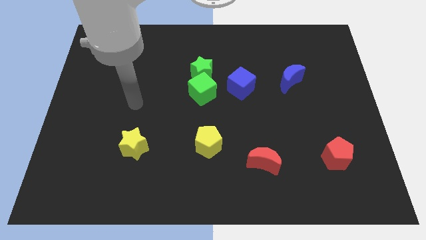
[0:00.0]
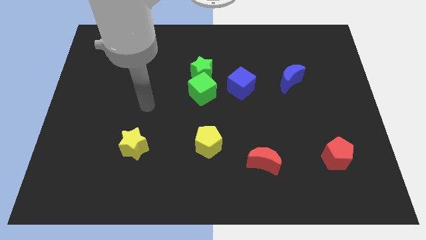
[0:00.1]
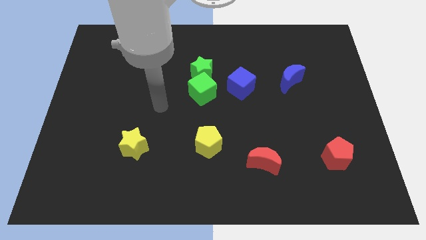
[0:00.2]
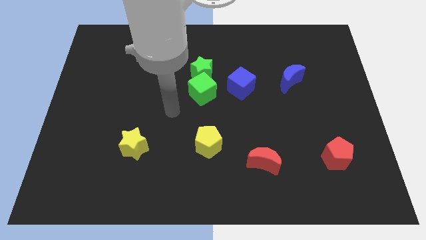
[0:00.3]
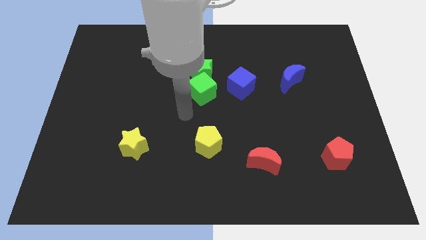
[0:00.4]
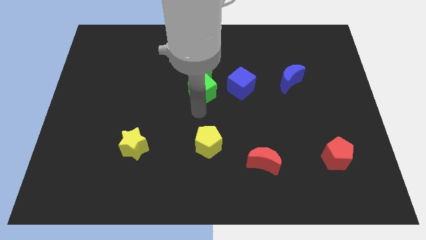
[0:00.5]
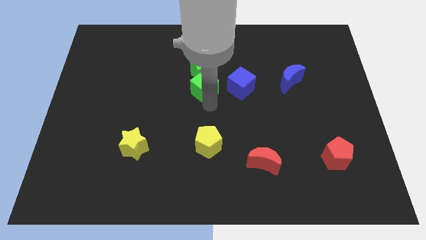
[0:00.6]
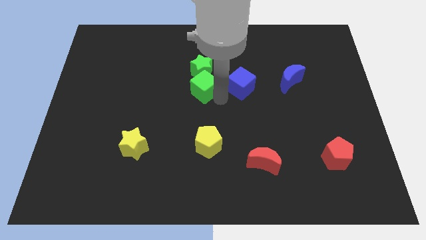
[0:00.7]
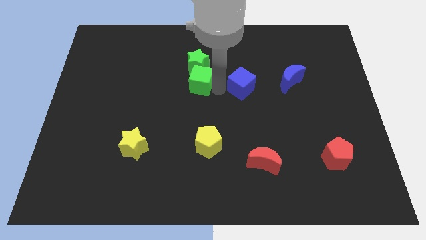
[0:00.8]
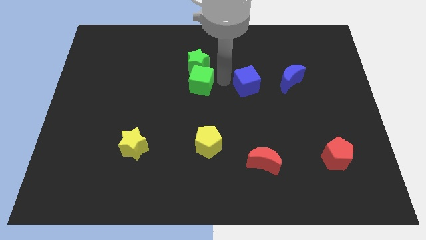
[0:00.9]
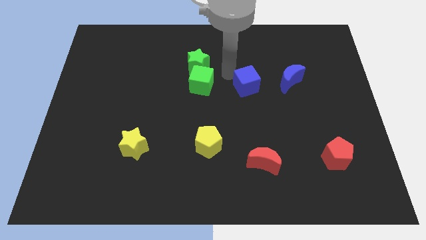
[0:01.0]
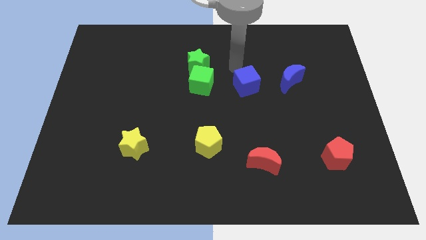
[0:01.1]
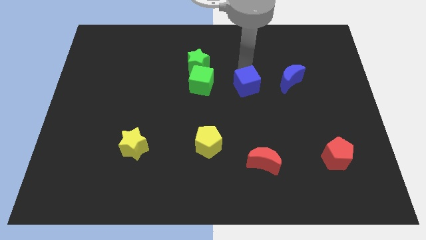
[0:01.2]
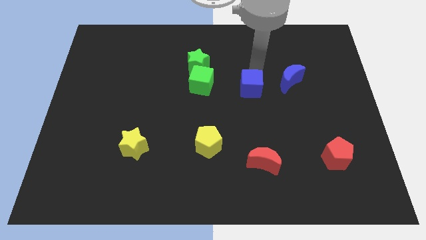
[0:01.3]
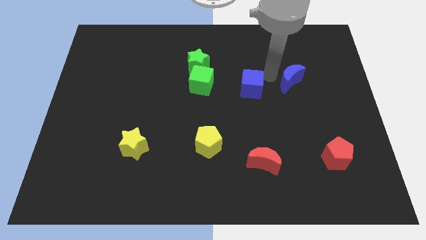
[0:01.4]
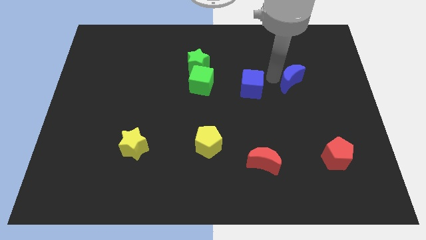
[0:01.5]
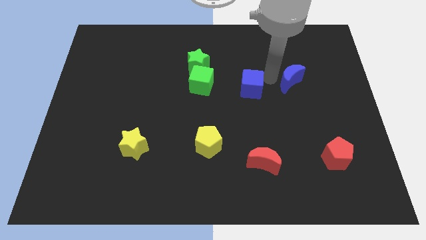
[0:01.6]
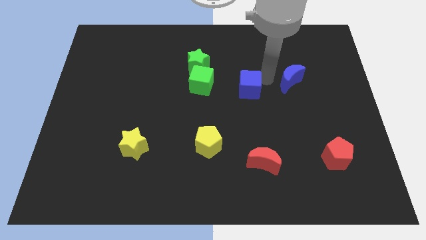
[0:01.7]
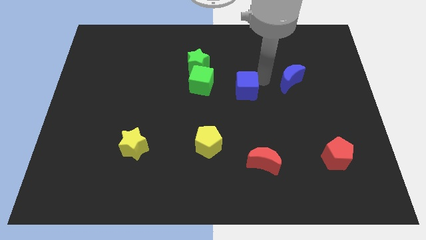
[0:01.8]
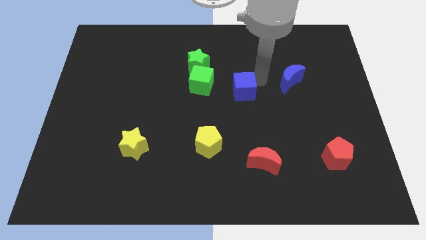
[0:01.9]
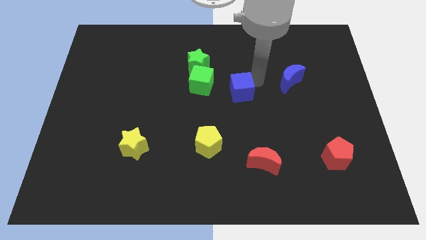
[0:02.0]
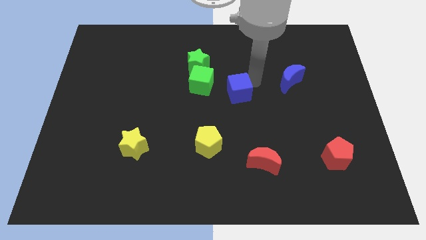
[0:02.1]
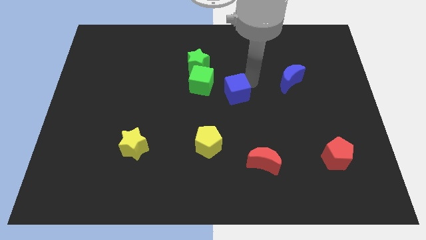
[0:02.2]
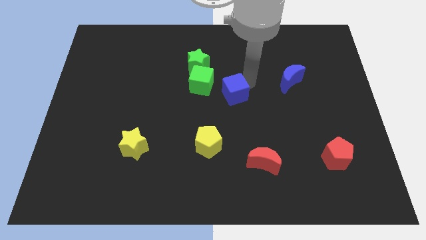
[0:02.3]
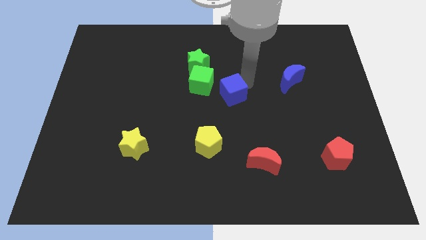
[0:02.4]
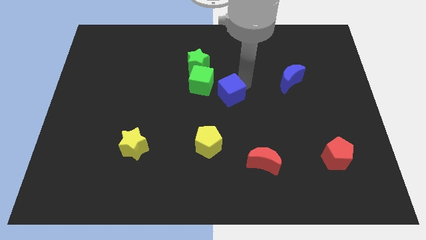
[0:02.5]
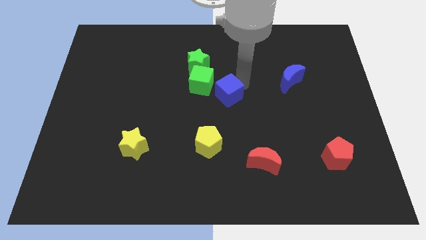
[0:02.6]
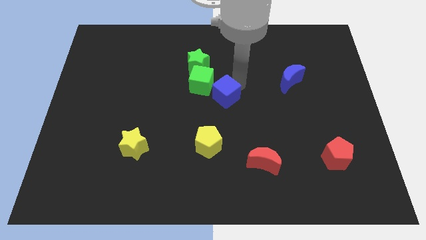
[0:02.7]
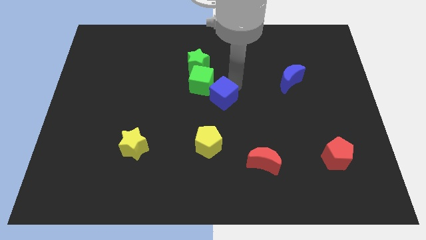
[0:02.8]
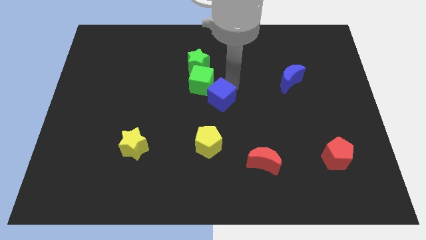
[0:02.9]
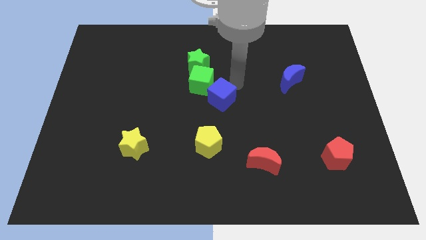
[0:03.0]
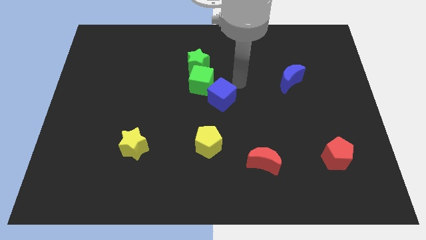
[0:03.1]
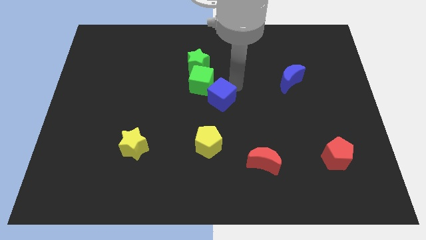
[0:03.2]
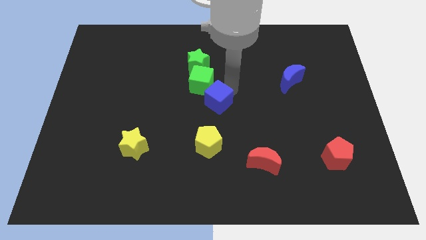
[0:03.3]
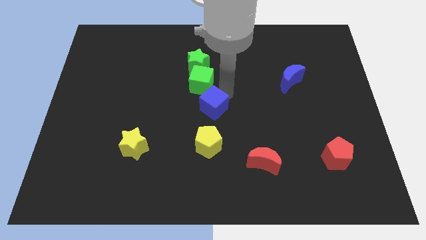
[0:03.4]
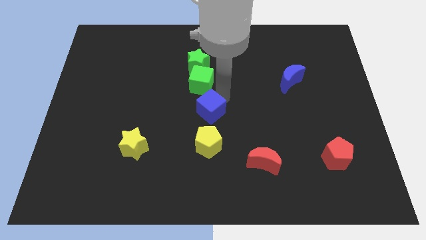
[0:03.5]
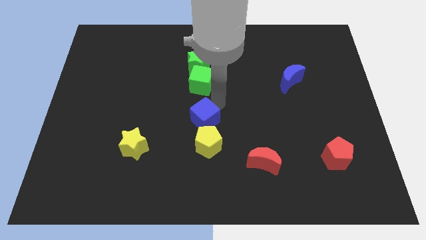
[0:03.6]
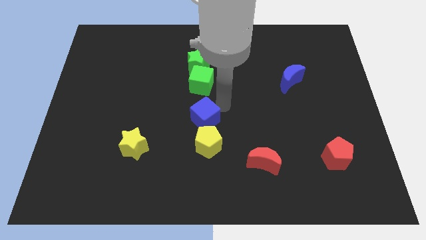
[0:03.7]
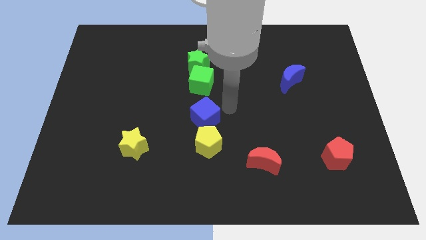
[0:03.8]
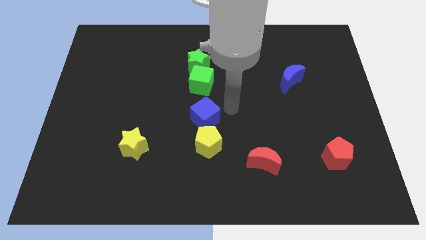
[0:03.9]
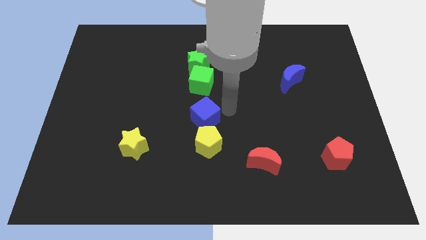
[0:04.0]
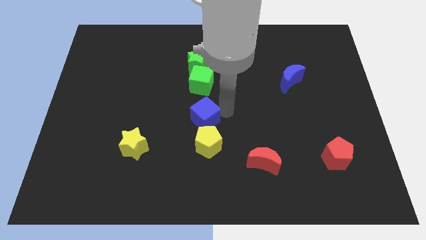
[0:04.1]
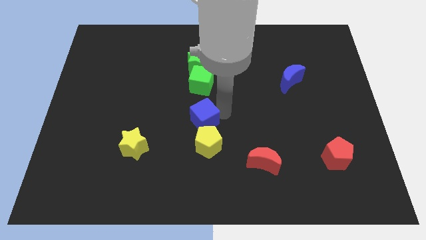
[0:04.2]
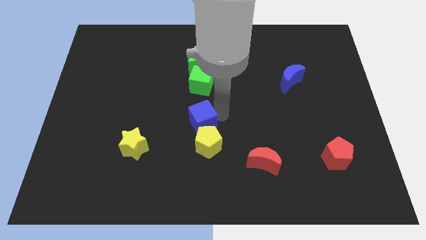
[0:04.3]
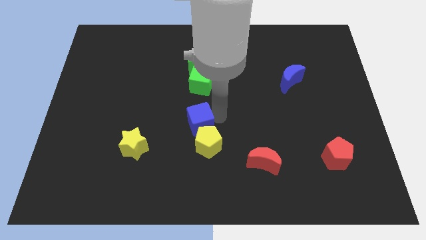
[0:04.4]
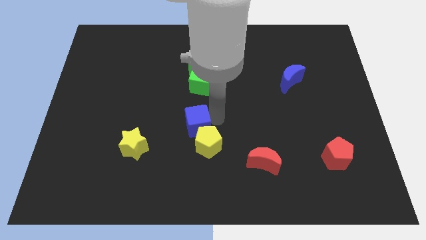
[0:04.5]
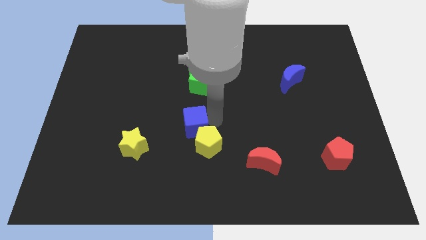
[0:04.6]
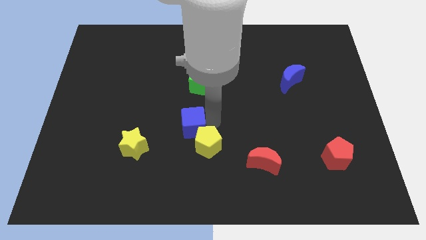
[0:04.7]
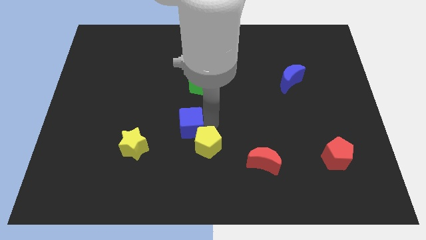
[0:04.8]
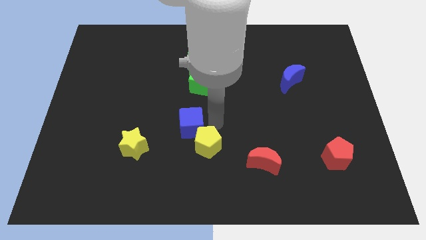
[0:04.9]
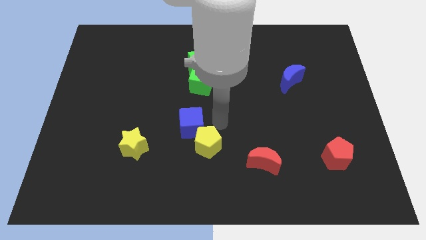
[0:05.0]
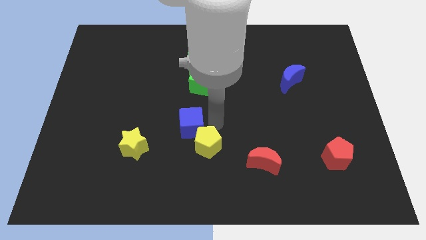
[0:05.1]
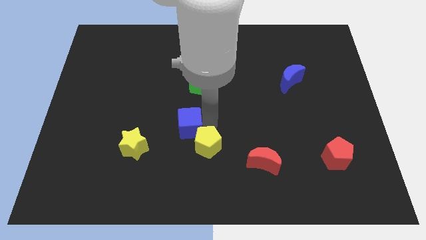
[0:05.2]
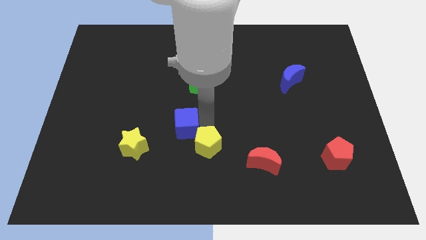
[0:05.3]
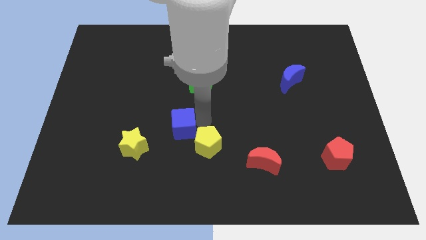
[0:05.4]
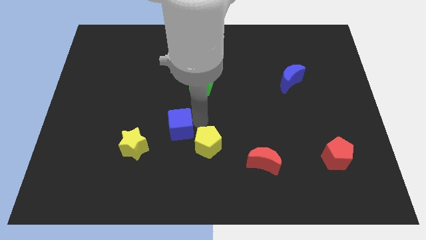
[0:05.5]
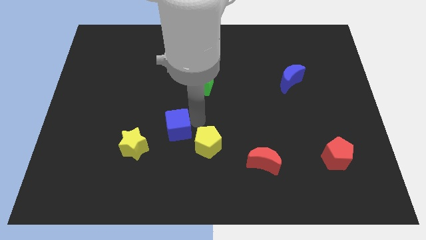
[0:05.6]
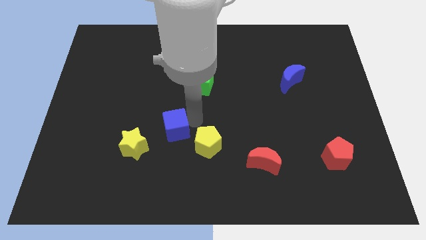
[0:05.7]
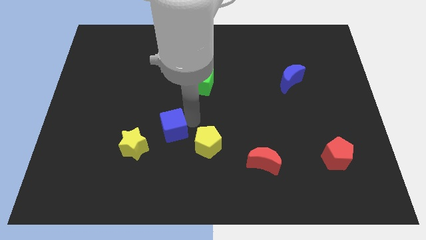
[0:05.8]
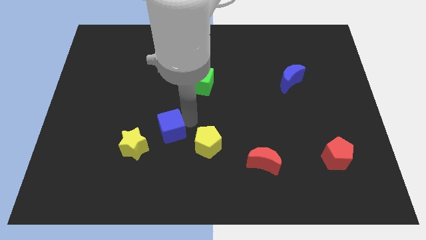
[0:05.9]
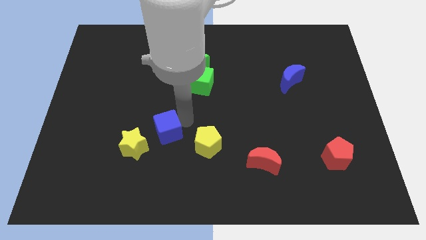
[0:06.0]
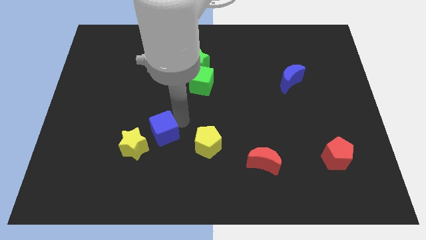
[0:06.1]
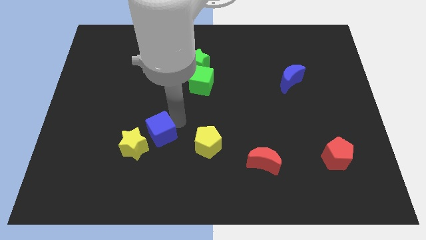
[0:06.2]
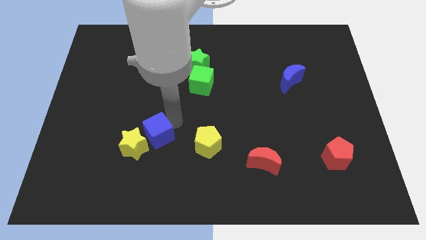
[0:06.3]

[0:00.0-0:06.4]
push the blue cube close to the yellow star

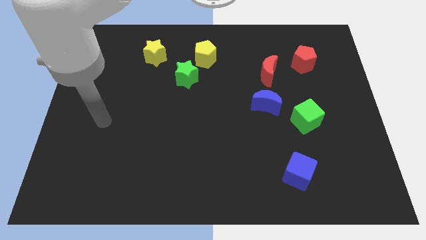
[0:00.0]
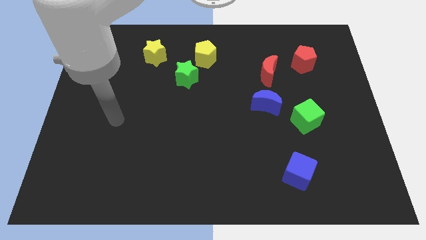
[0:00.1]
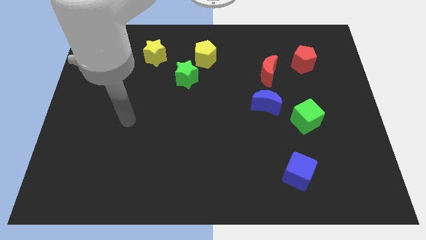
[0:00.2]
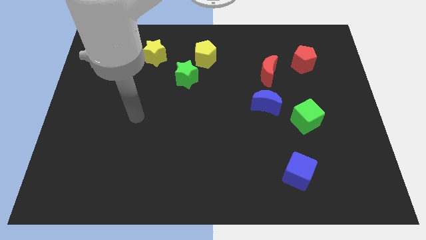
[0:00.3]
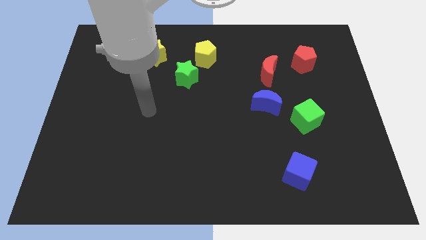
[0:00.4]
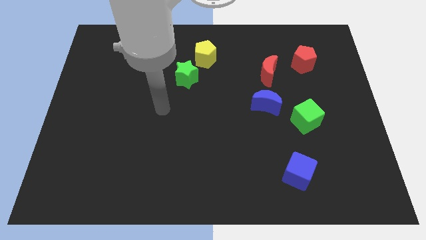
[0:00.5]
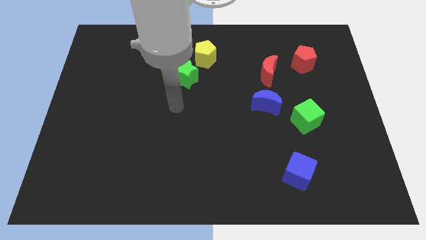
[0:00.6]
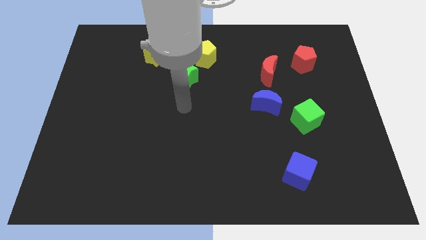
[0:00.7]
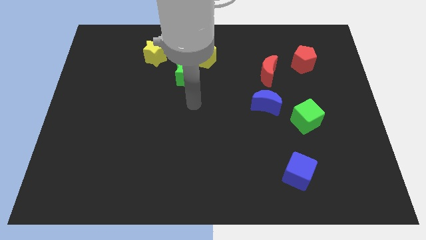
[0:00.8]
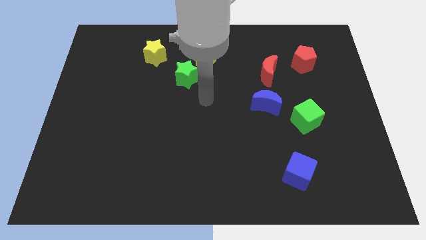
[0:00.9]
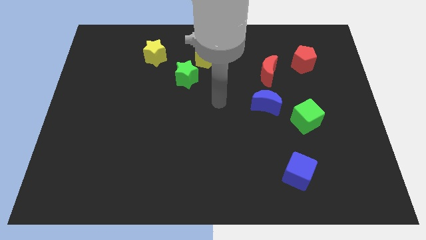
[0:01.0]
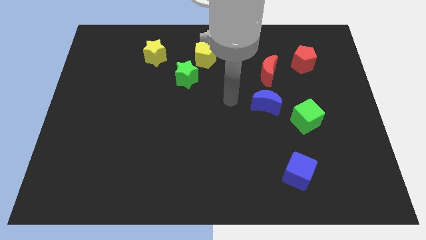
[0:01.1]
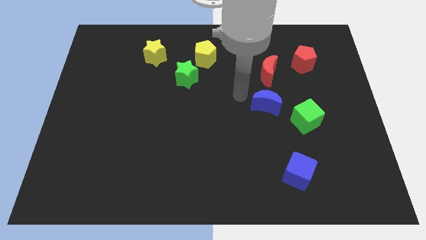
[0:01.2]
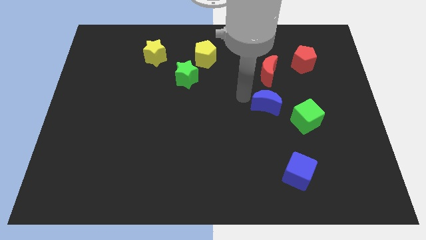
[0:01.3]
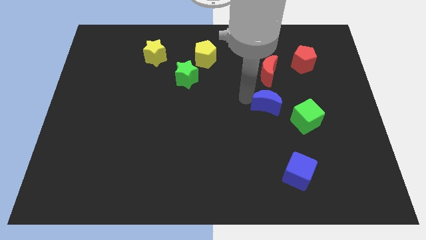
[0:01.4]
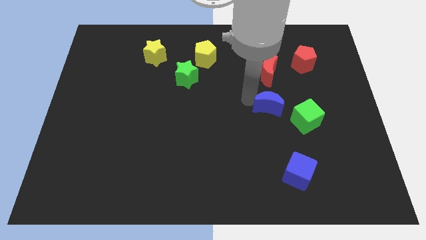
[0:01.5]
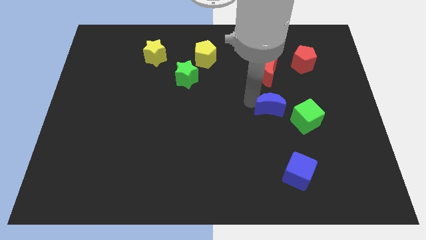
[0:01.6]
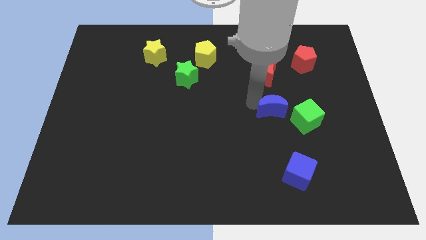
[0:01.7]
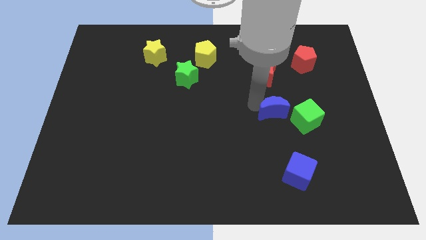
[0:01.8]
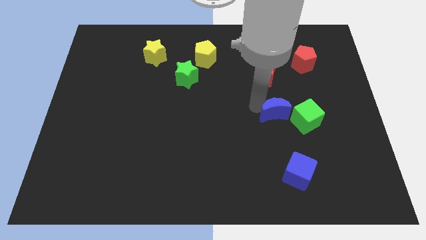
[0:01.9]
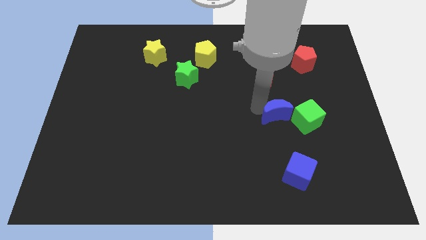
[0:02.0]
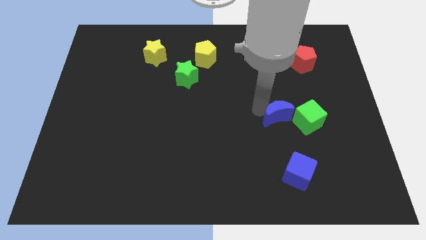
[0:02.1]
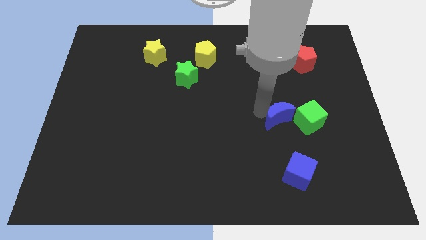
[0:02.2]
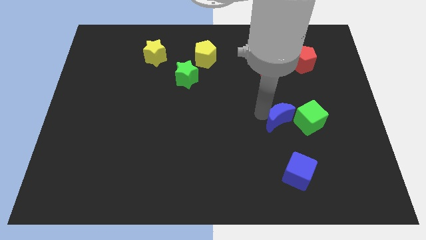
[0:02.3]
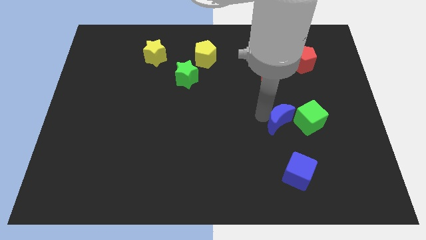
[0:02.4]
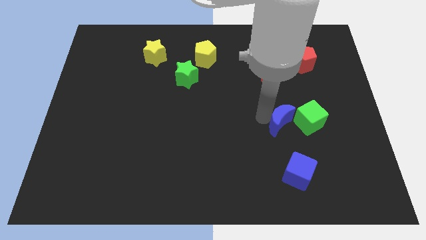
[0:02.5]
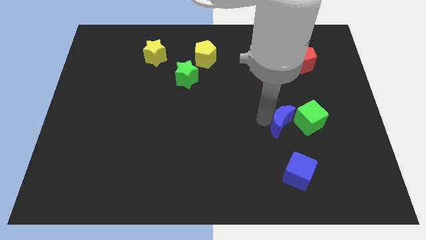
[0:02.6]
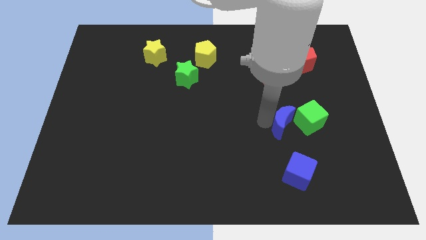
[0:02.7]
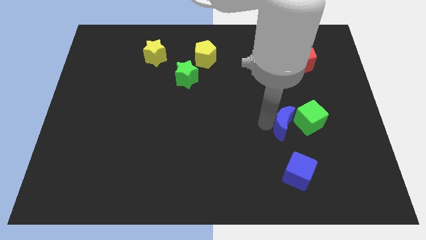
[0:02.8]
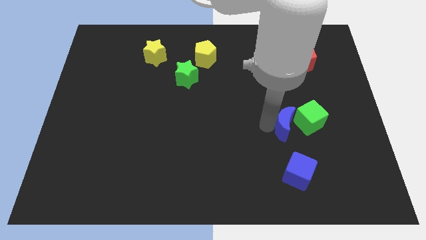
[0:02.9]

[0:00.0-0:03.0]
move the blue moon to the green cube
